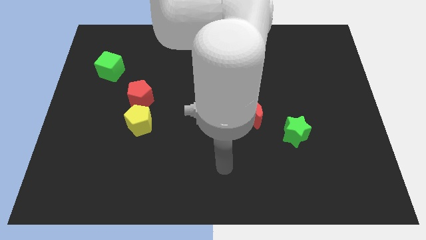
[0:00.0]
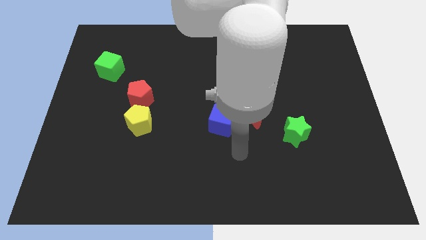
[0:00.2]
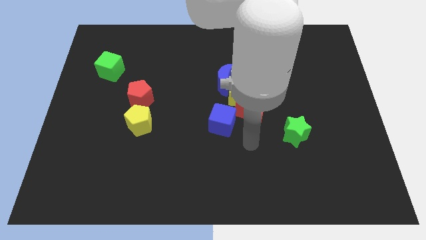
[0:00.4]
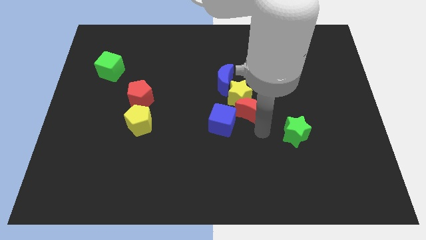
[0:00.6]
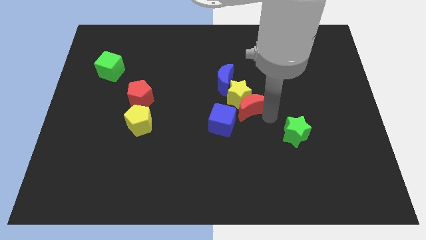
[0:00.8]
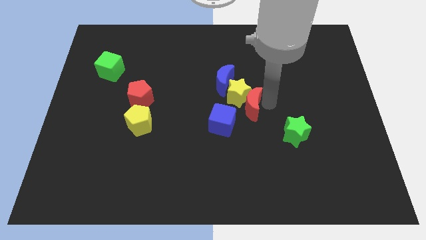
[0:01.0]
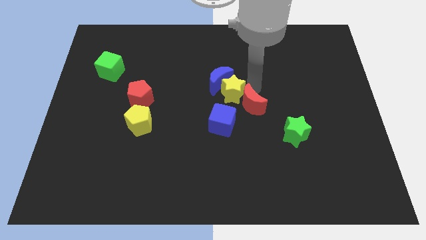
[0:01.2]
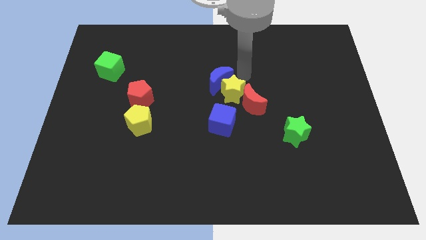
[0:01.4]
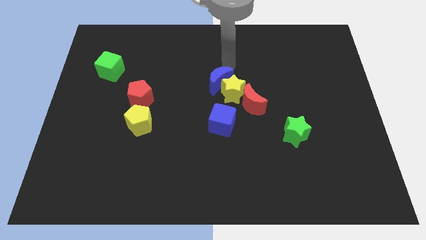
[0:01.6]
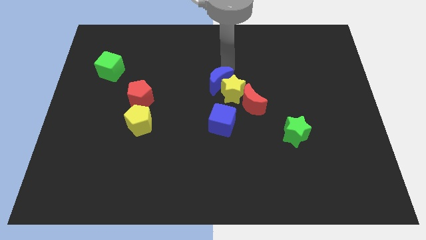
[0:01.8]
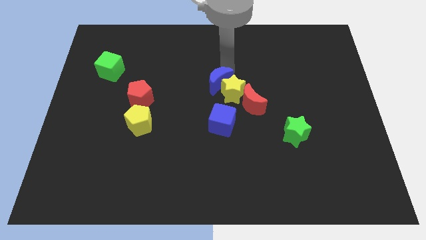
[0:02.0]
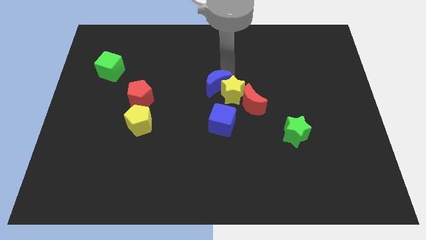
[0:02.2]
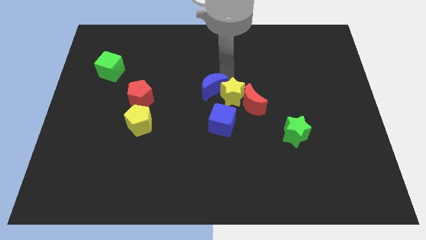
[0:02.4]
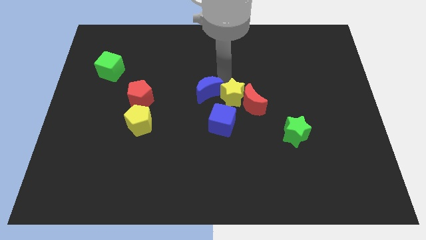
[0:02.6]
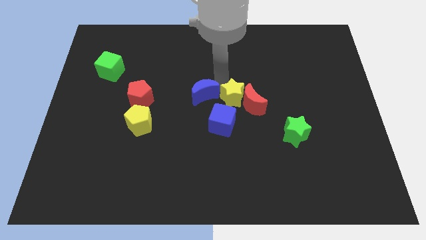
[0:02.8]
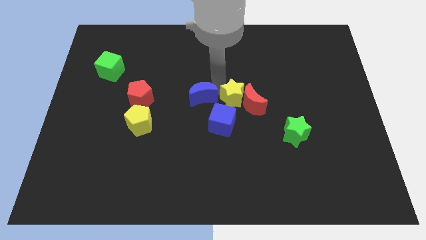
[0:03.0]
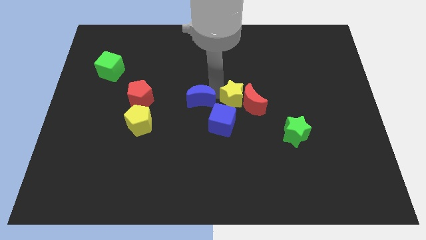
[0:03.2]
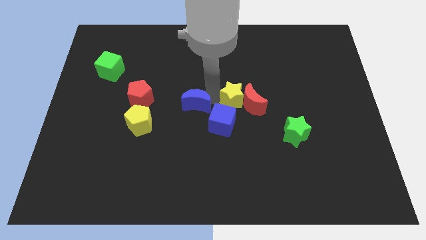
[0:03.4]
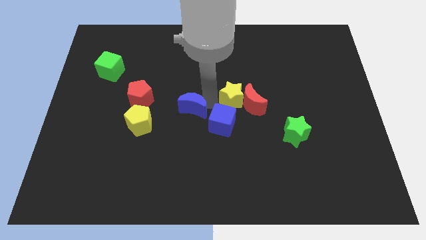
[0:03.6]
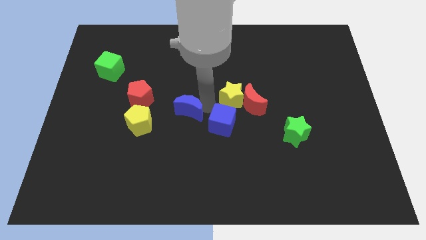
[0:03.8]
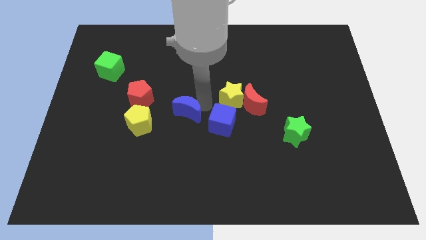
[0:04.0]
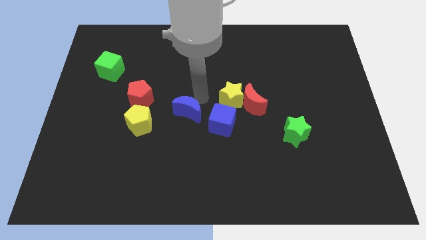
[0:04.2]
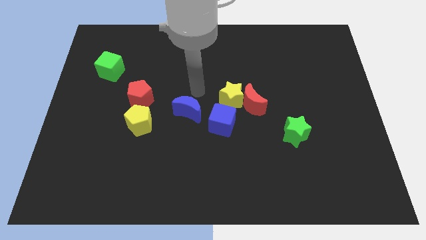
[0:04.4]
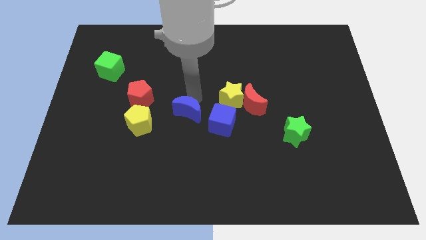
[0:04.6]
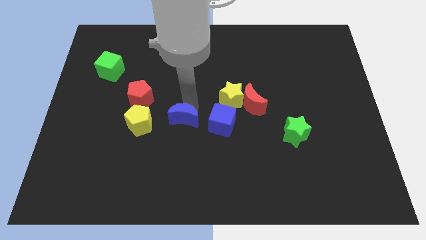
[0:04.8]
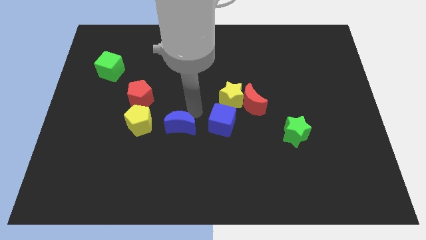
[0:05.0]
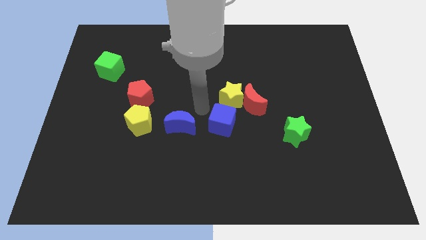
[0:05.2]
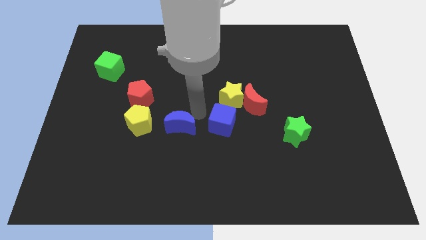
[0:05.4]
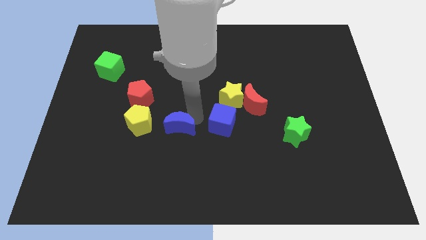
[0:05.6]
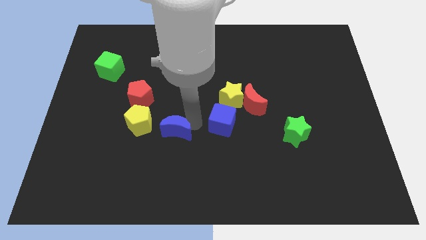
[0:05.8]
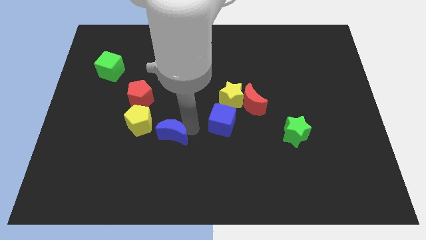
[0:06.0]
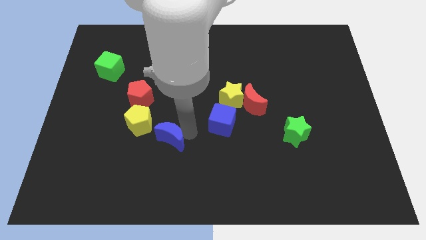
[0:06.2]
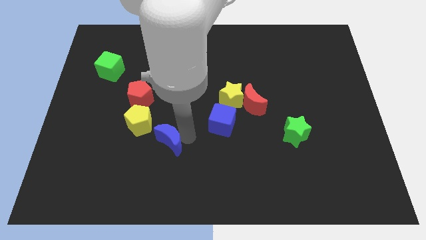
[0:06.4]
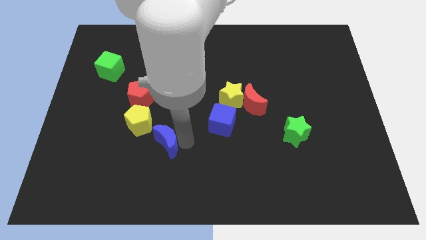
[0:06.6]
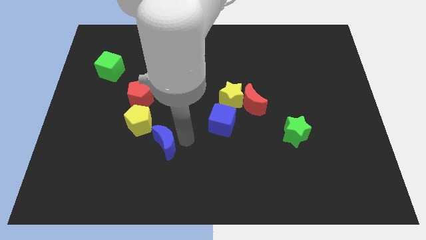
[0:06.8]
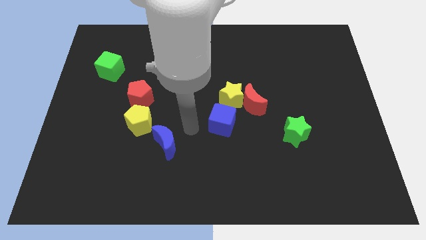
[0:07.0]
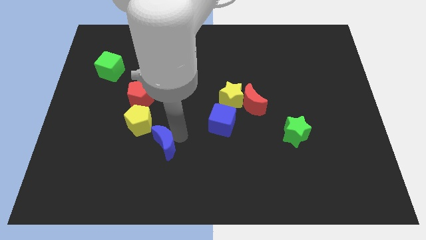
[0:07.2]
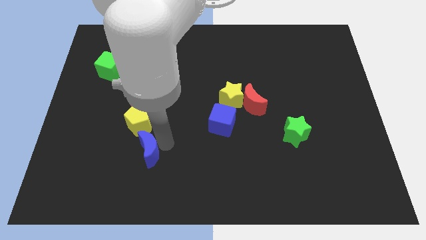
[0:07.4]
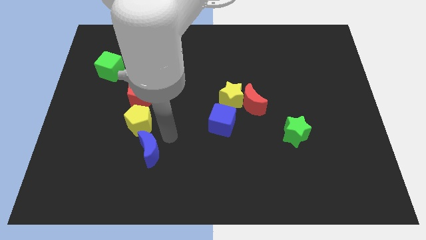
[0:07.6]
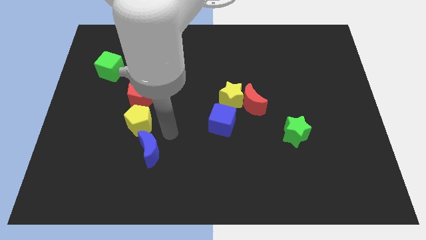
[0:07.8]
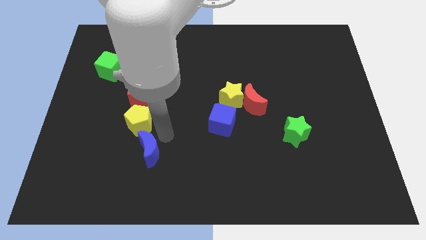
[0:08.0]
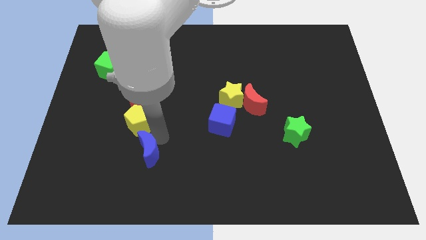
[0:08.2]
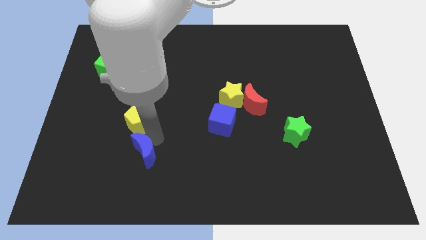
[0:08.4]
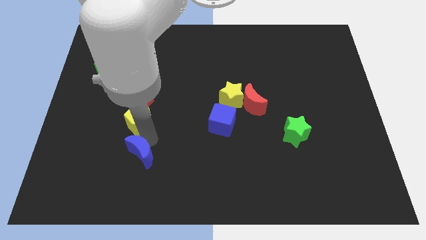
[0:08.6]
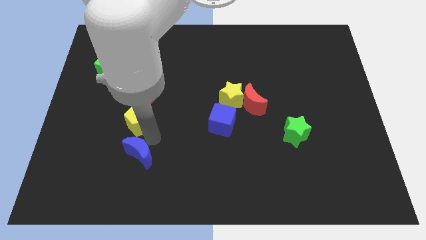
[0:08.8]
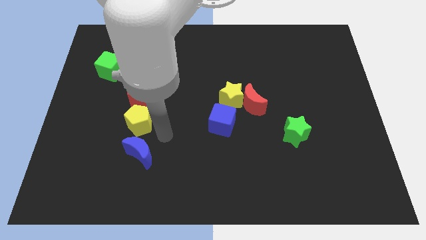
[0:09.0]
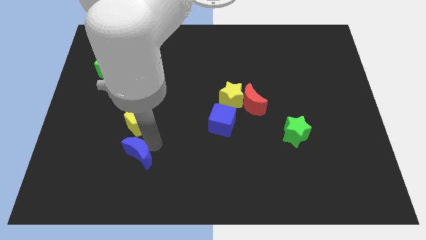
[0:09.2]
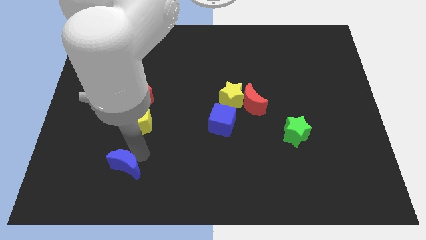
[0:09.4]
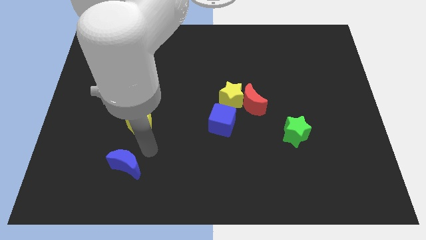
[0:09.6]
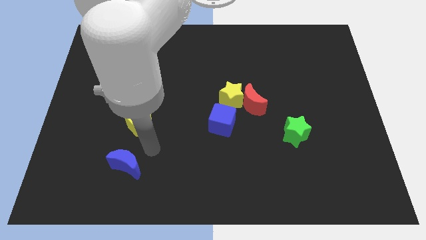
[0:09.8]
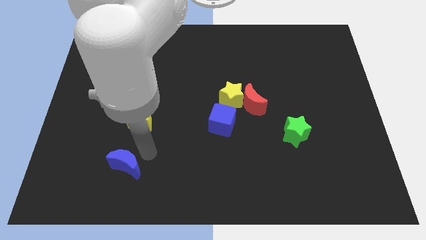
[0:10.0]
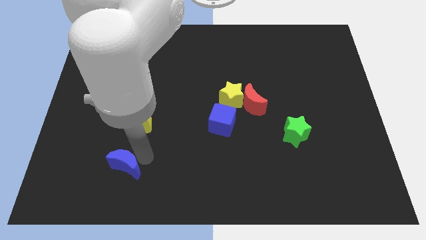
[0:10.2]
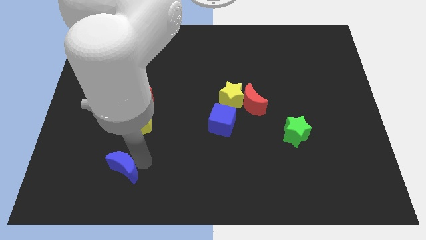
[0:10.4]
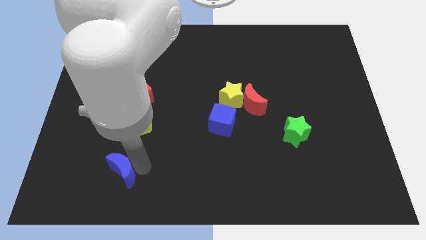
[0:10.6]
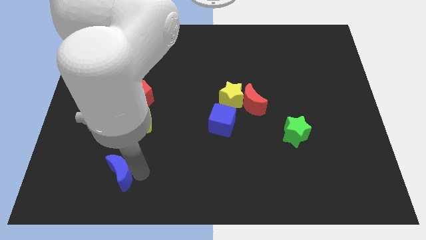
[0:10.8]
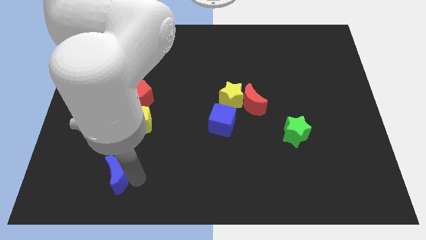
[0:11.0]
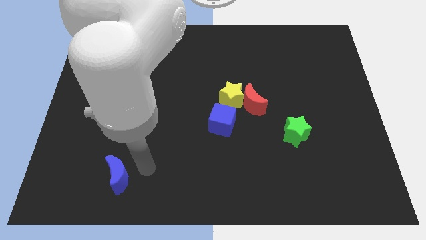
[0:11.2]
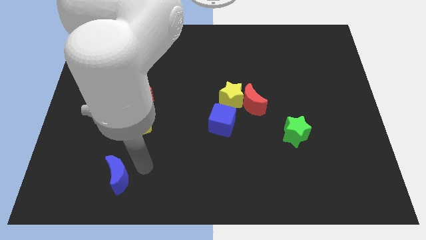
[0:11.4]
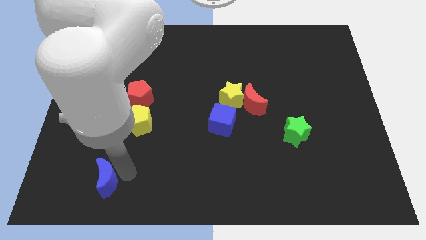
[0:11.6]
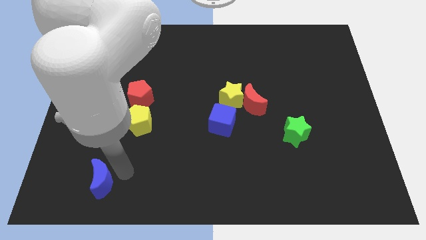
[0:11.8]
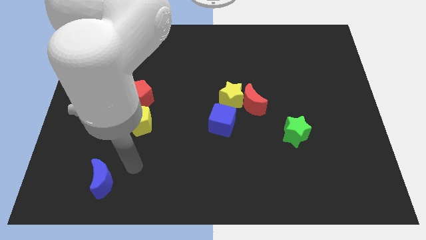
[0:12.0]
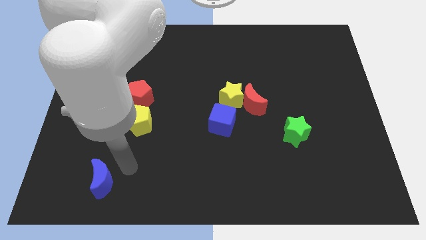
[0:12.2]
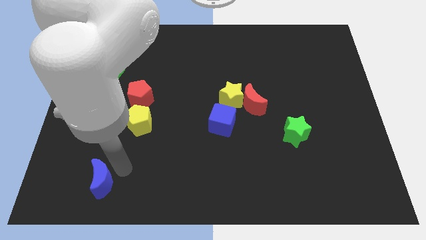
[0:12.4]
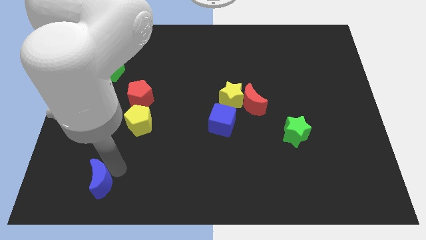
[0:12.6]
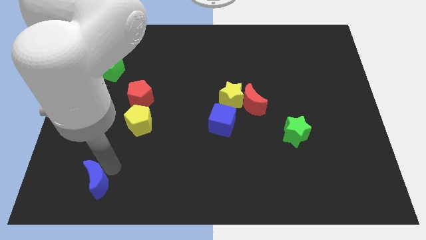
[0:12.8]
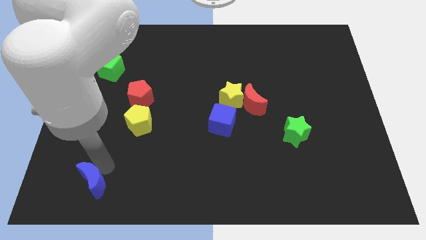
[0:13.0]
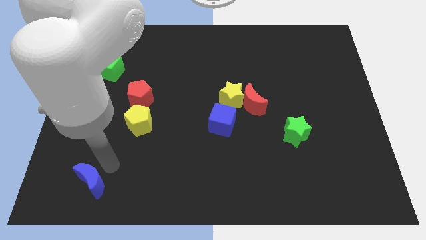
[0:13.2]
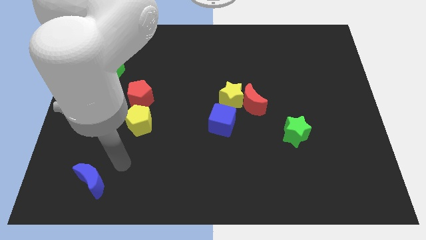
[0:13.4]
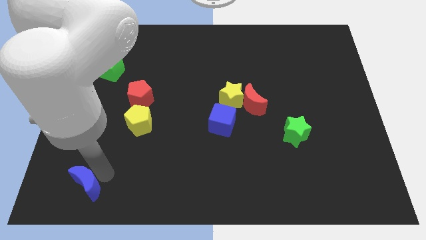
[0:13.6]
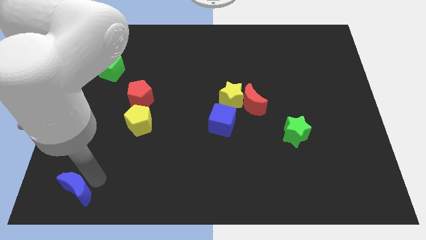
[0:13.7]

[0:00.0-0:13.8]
slide the blue moon to the lower left corner
